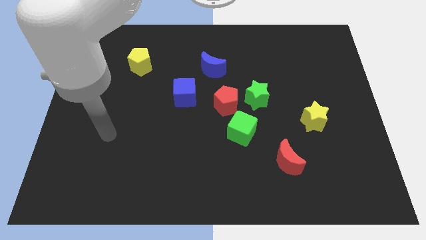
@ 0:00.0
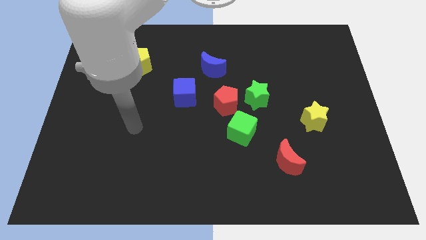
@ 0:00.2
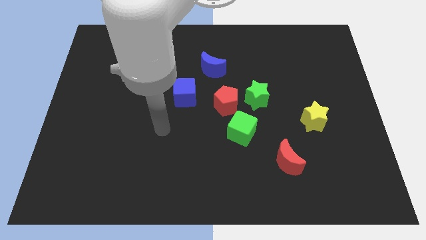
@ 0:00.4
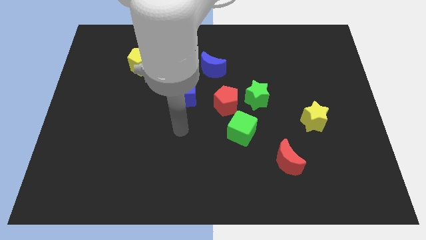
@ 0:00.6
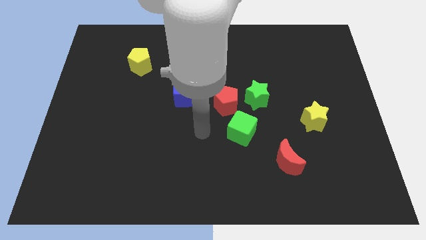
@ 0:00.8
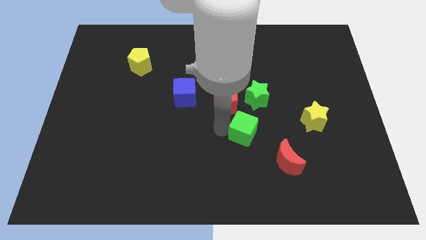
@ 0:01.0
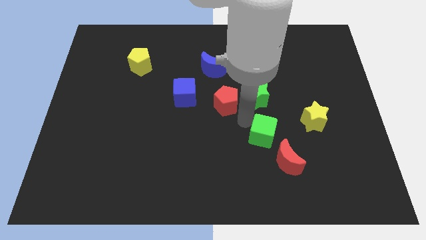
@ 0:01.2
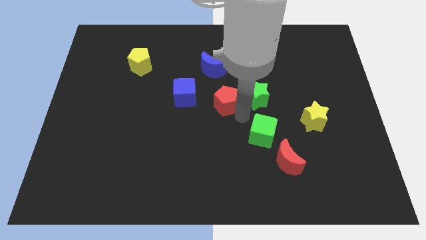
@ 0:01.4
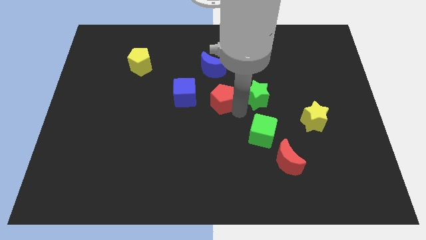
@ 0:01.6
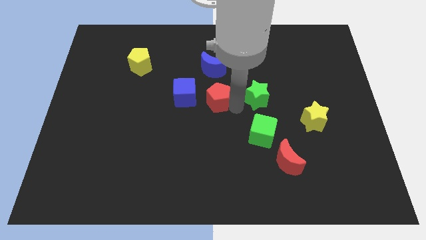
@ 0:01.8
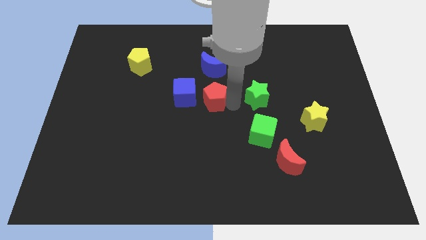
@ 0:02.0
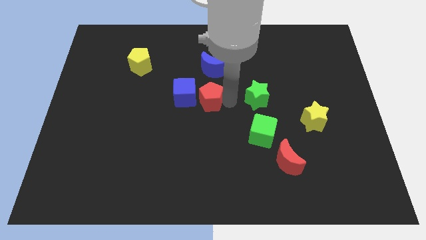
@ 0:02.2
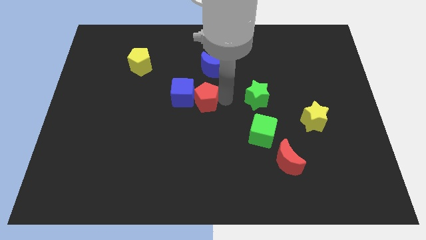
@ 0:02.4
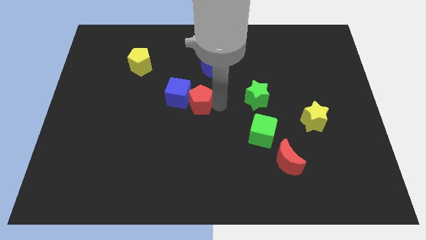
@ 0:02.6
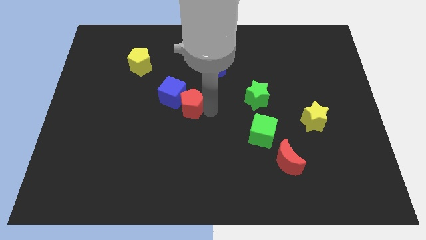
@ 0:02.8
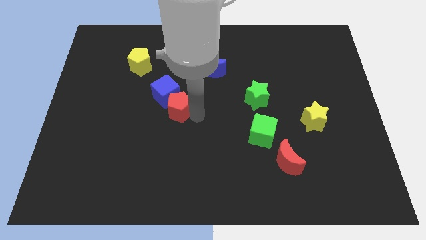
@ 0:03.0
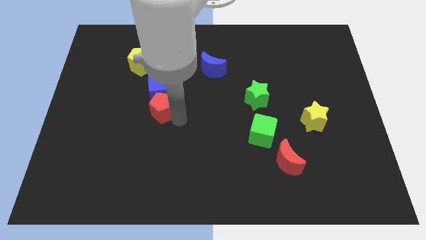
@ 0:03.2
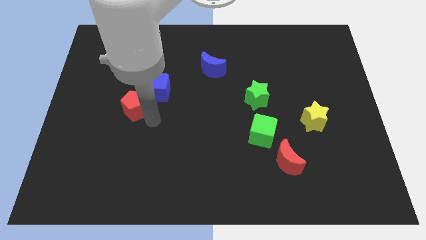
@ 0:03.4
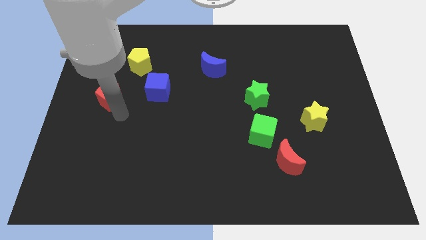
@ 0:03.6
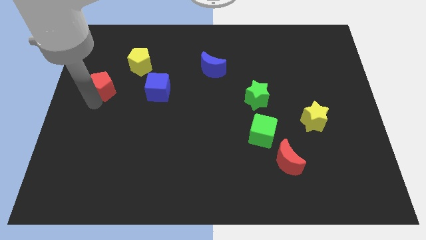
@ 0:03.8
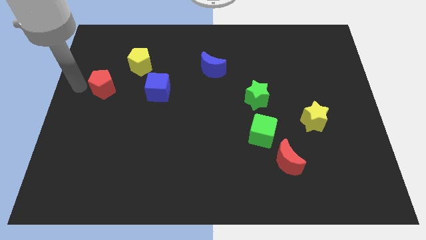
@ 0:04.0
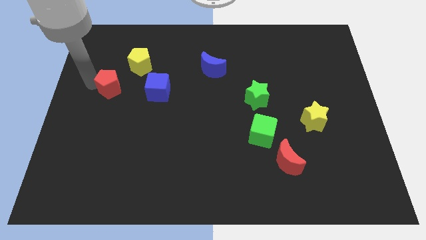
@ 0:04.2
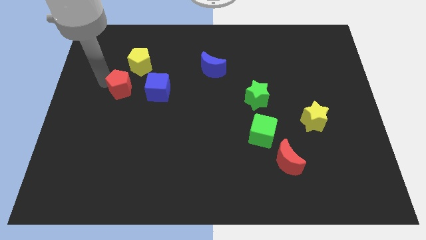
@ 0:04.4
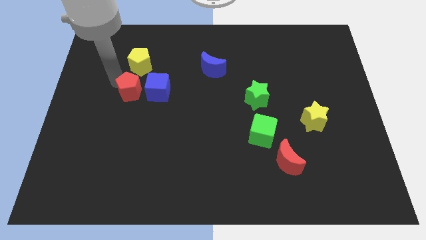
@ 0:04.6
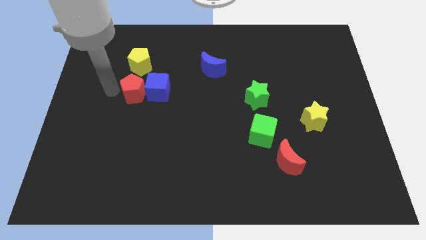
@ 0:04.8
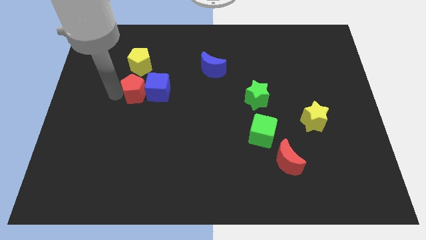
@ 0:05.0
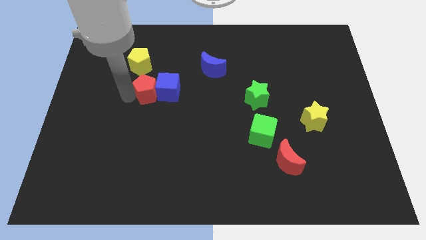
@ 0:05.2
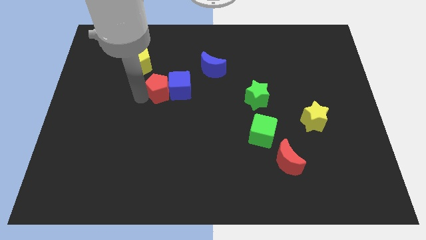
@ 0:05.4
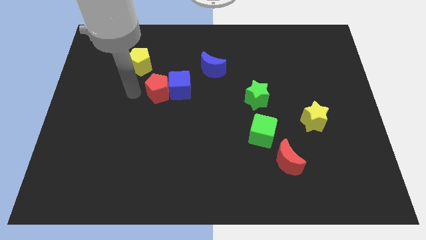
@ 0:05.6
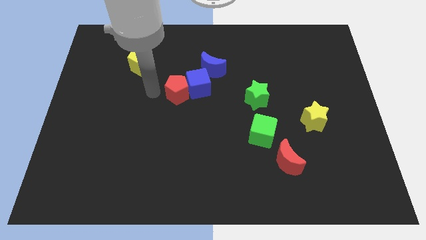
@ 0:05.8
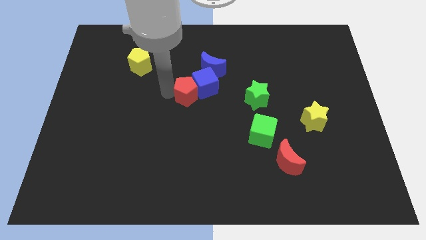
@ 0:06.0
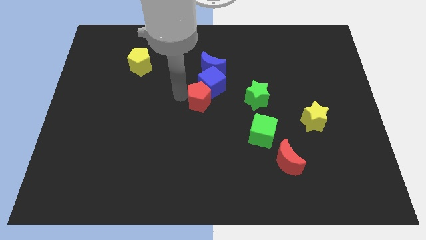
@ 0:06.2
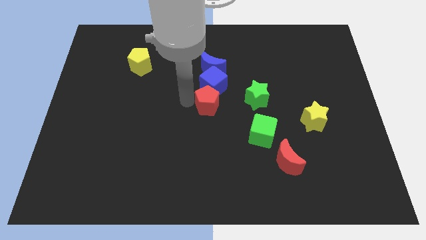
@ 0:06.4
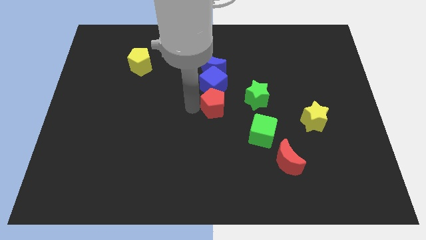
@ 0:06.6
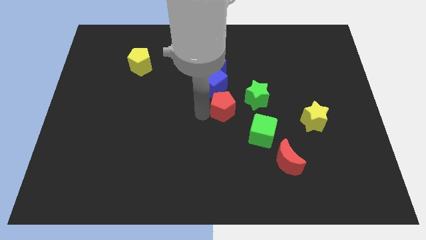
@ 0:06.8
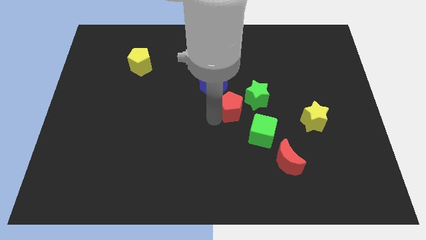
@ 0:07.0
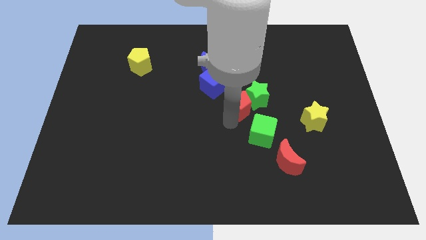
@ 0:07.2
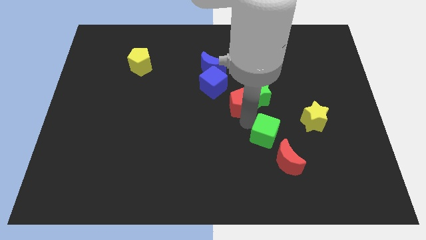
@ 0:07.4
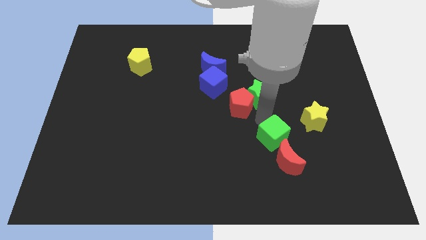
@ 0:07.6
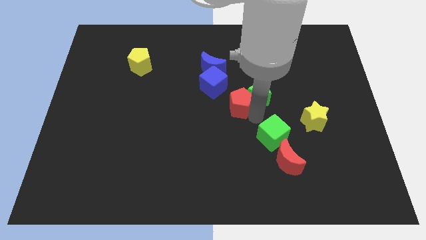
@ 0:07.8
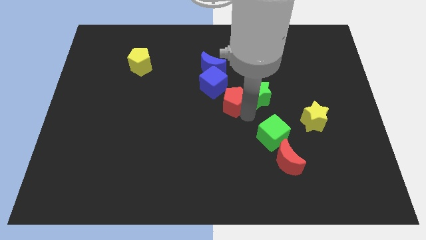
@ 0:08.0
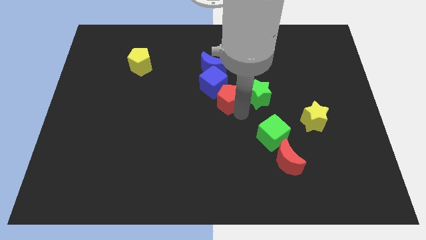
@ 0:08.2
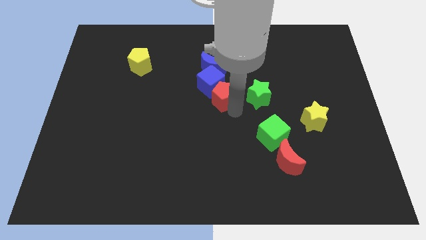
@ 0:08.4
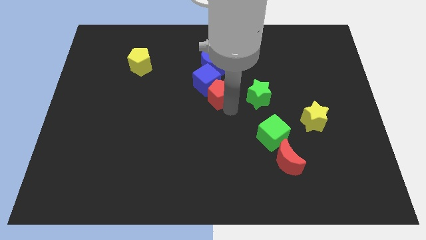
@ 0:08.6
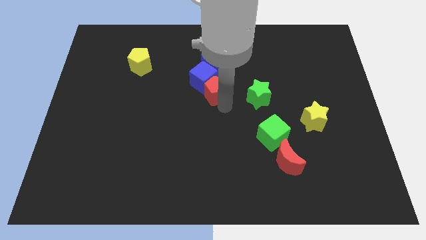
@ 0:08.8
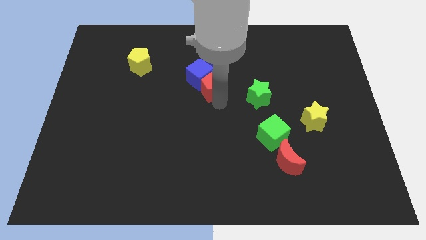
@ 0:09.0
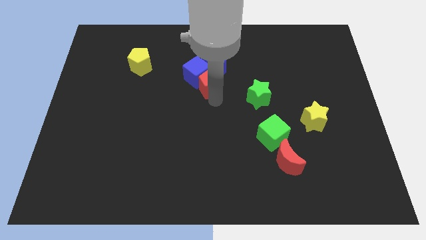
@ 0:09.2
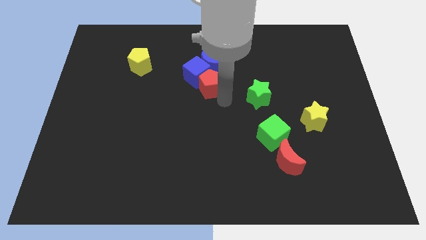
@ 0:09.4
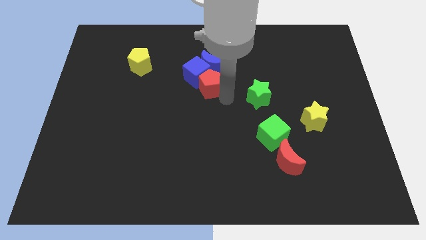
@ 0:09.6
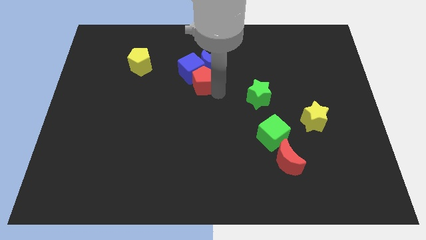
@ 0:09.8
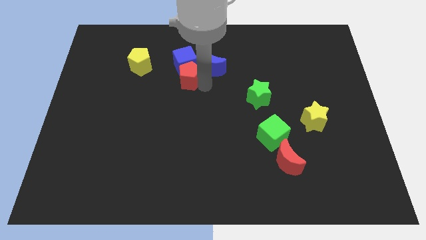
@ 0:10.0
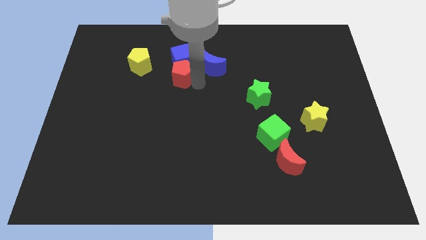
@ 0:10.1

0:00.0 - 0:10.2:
push the red pentagon to the right side of the yellow pentagon

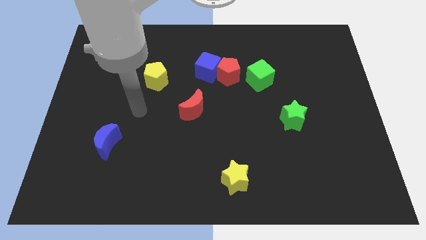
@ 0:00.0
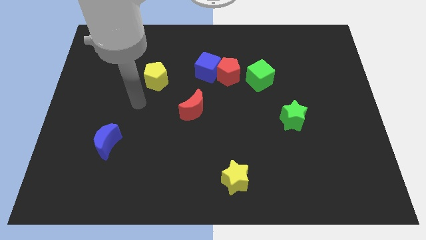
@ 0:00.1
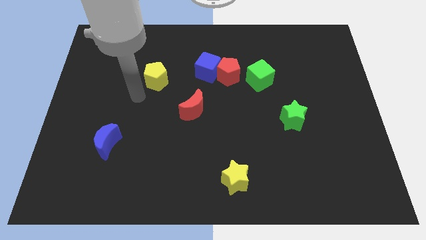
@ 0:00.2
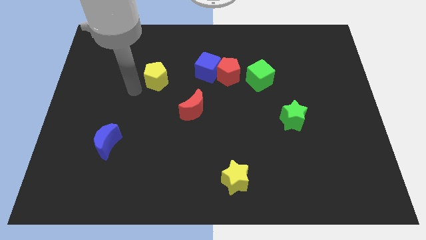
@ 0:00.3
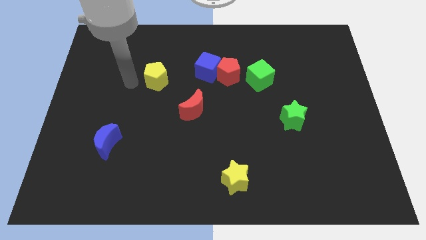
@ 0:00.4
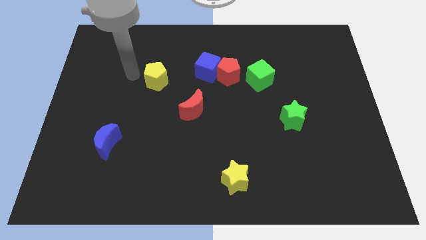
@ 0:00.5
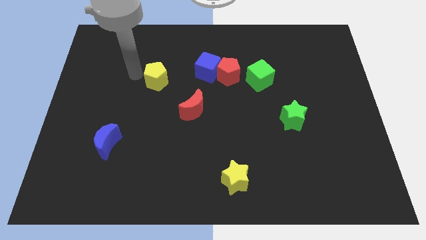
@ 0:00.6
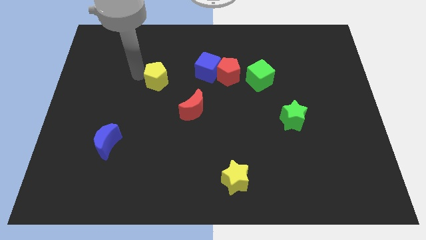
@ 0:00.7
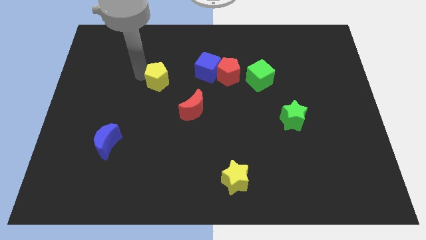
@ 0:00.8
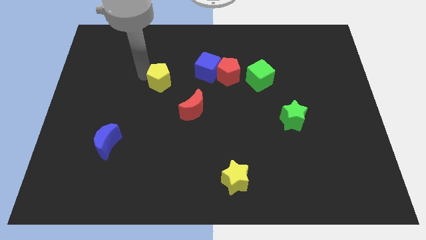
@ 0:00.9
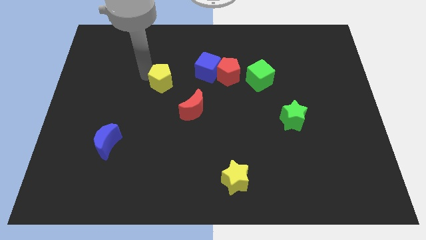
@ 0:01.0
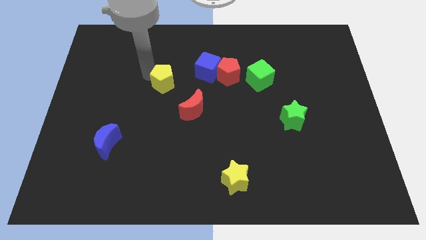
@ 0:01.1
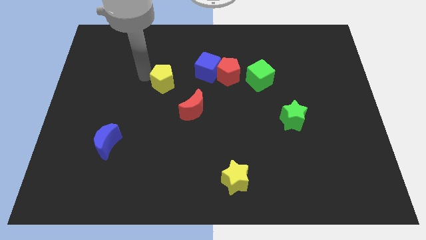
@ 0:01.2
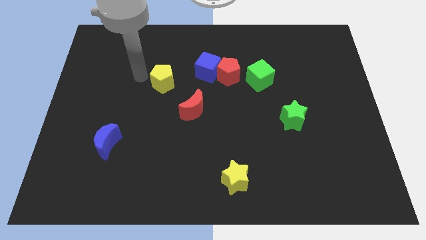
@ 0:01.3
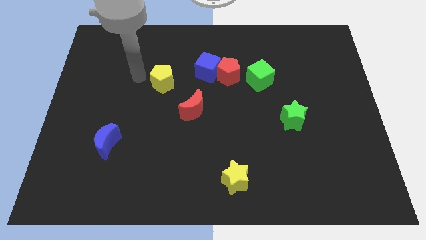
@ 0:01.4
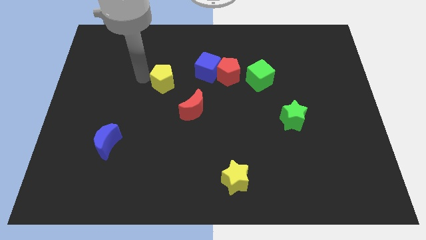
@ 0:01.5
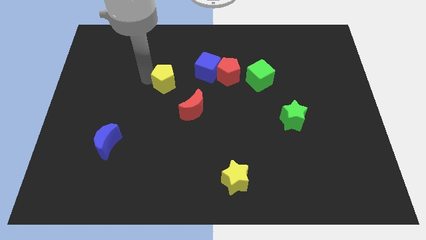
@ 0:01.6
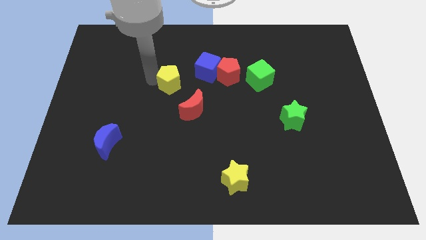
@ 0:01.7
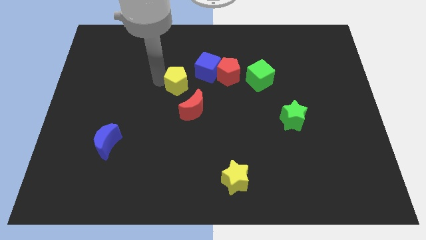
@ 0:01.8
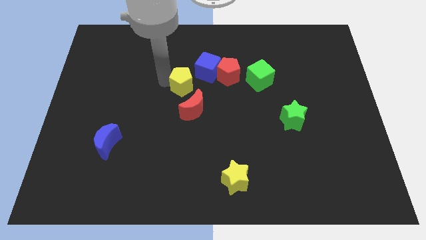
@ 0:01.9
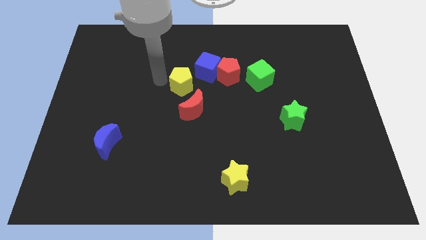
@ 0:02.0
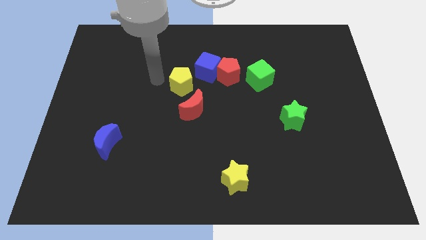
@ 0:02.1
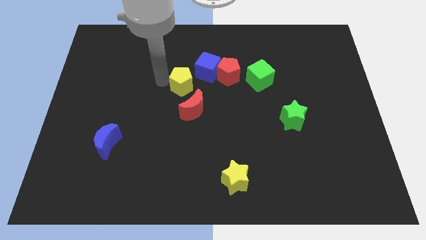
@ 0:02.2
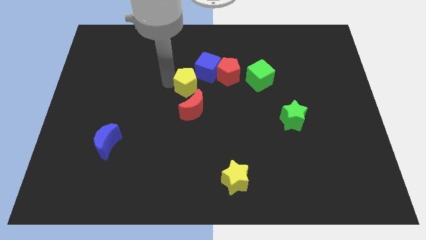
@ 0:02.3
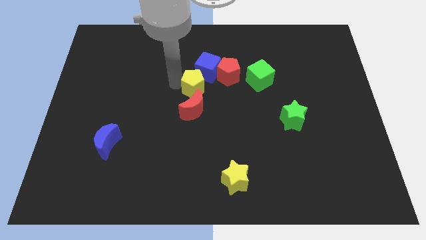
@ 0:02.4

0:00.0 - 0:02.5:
move the yellow pentagon diagonally down and to the left of the red pentagon

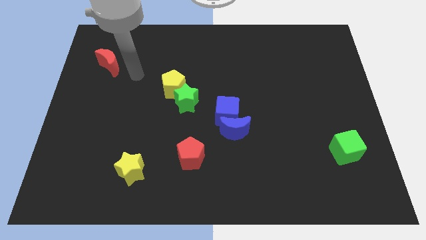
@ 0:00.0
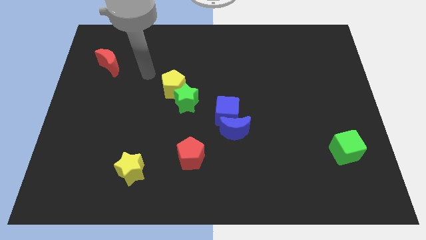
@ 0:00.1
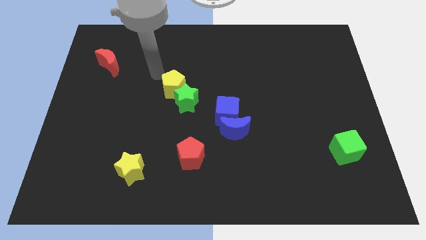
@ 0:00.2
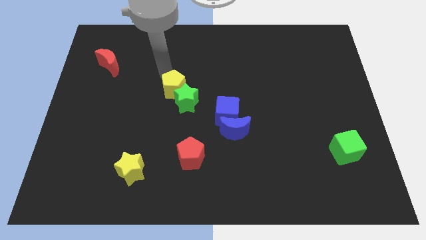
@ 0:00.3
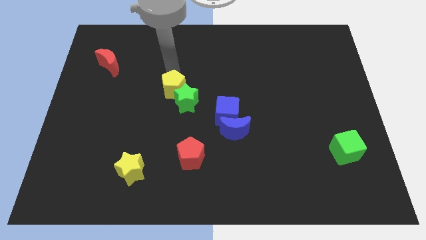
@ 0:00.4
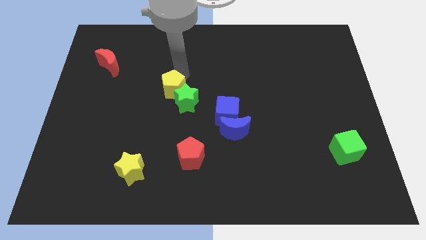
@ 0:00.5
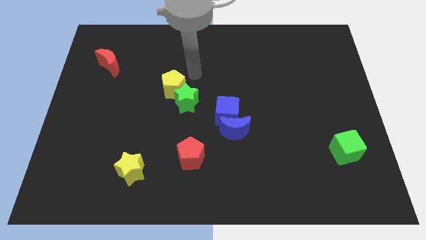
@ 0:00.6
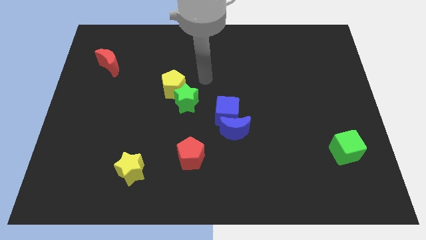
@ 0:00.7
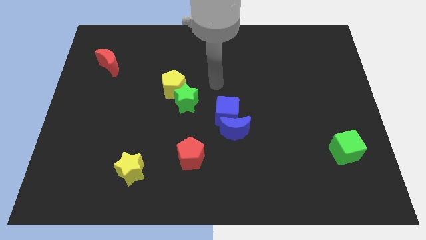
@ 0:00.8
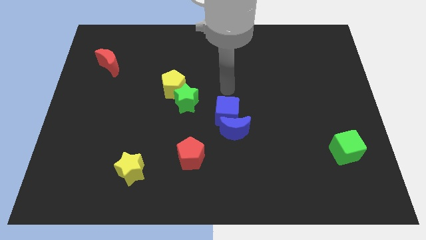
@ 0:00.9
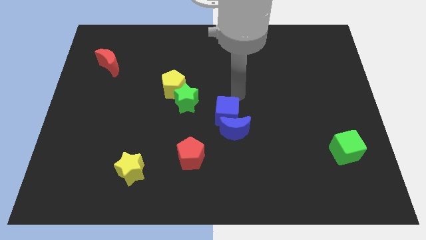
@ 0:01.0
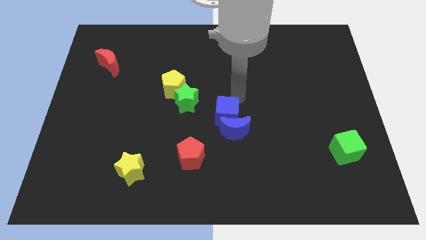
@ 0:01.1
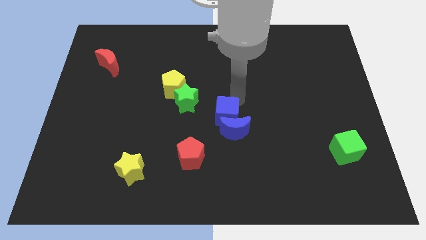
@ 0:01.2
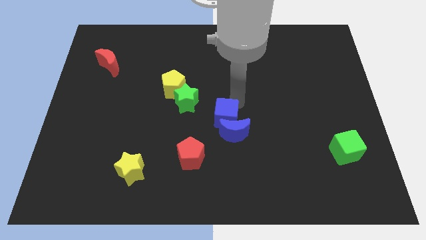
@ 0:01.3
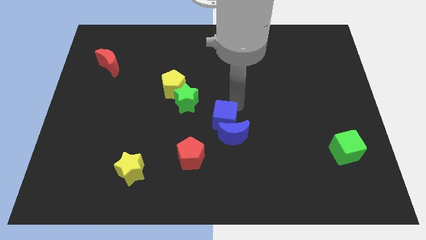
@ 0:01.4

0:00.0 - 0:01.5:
slide the blue cube to the top right of the red pentagon
